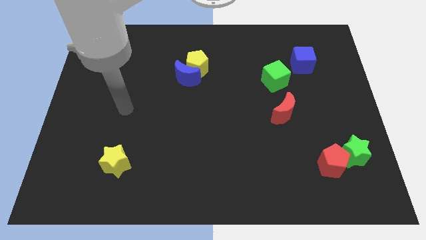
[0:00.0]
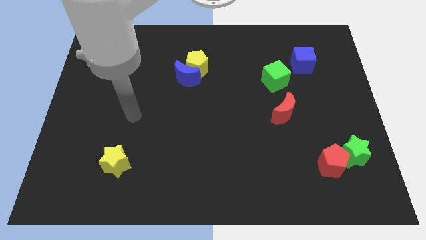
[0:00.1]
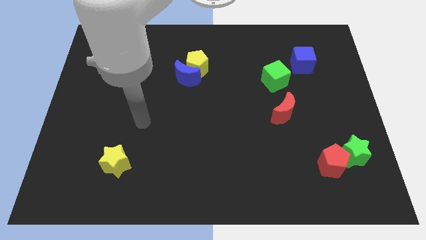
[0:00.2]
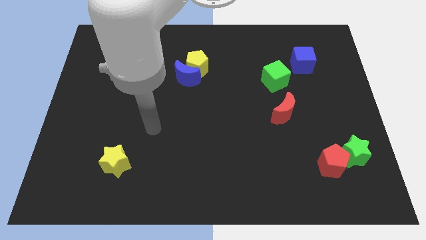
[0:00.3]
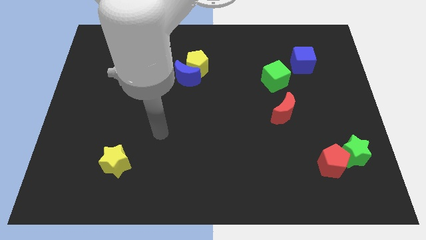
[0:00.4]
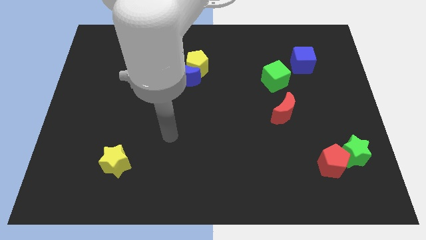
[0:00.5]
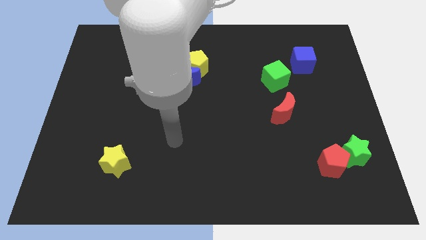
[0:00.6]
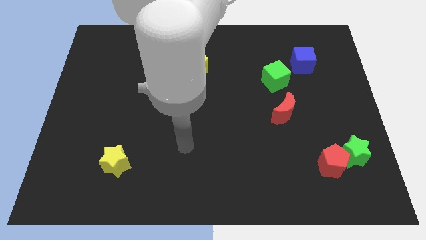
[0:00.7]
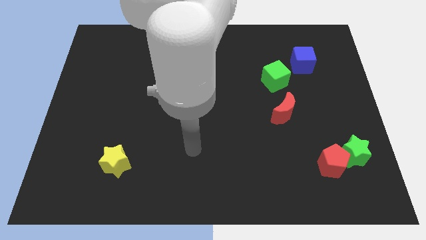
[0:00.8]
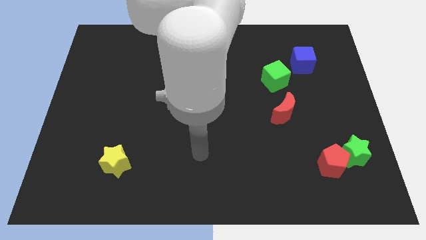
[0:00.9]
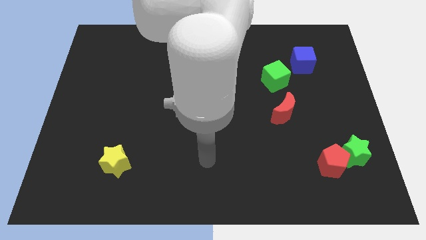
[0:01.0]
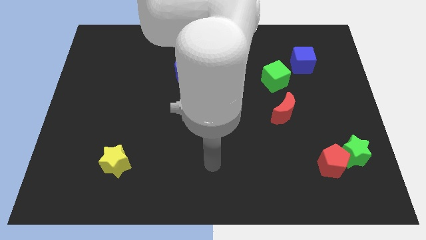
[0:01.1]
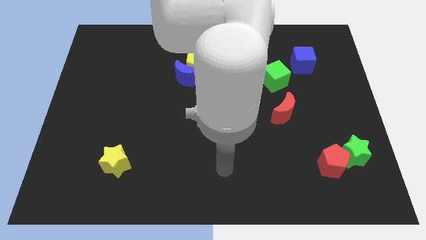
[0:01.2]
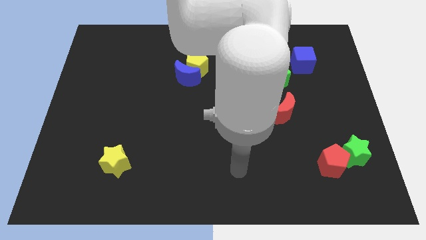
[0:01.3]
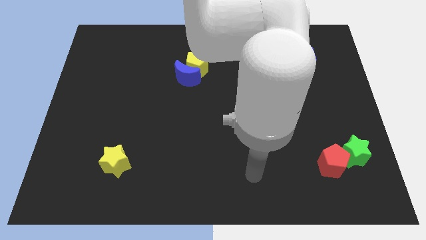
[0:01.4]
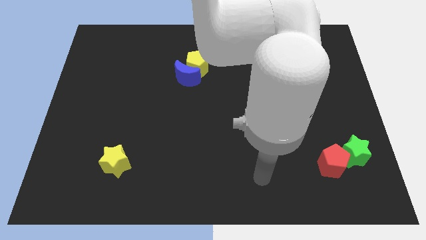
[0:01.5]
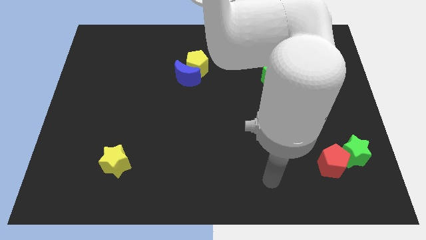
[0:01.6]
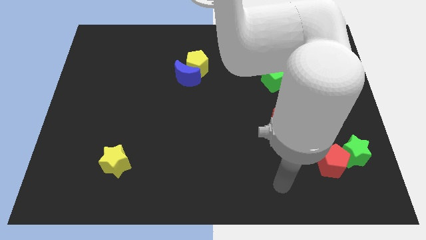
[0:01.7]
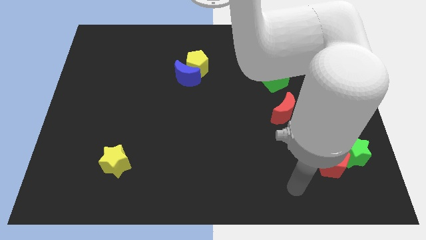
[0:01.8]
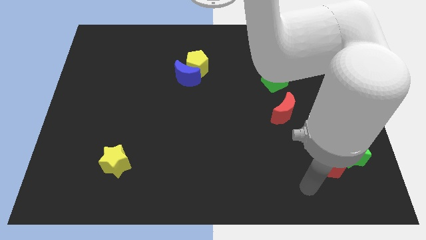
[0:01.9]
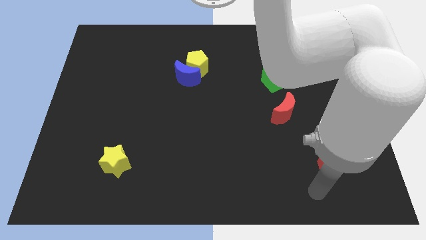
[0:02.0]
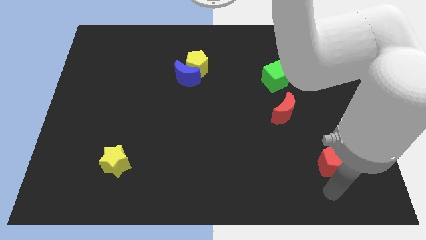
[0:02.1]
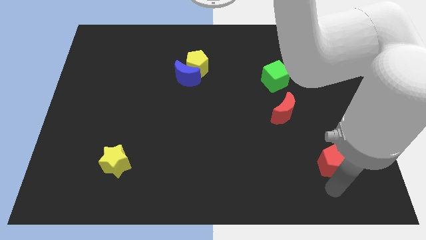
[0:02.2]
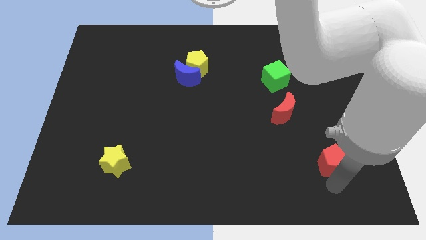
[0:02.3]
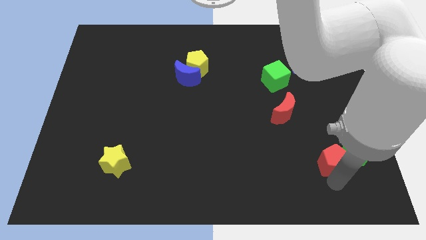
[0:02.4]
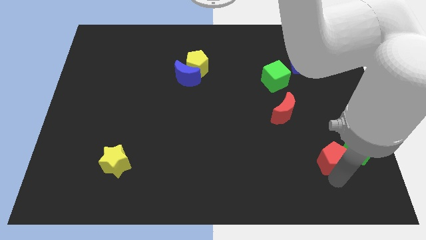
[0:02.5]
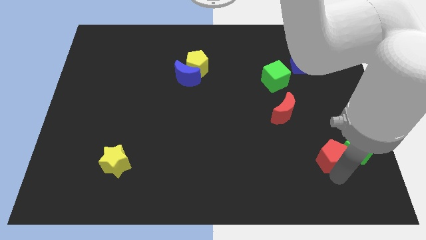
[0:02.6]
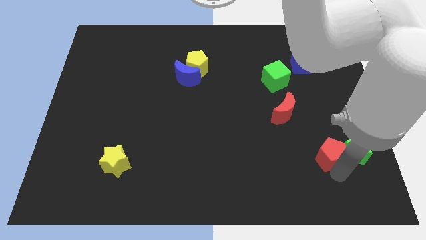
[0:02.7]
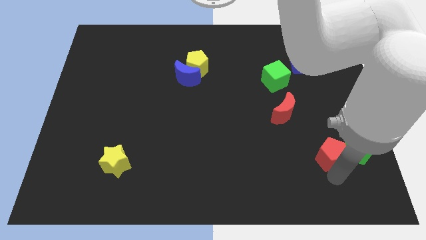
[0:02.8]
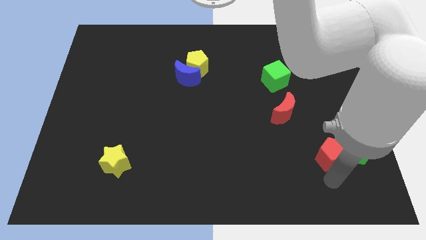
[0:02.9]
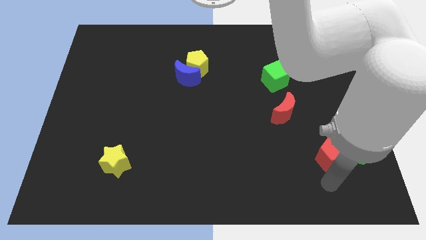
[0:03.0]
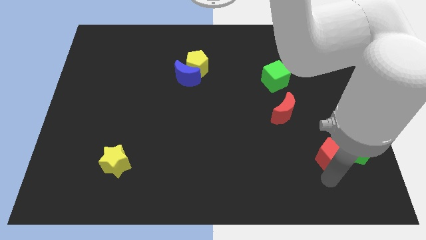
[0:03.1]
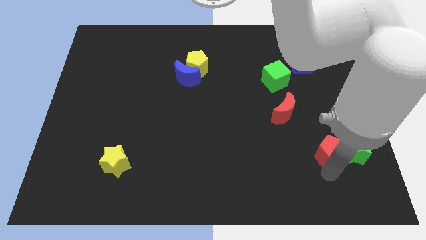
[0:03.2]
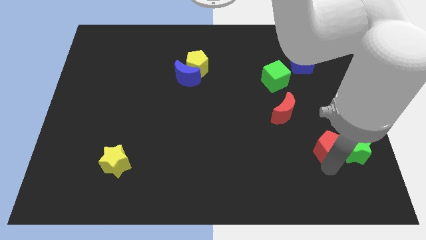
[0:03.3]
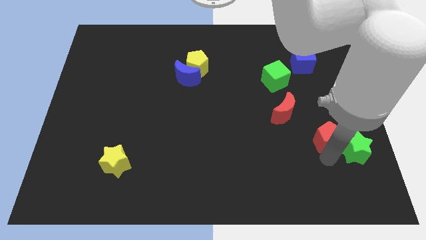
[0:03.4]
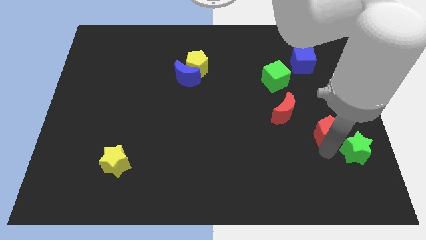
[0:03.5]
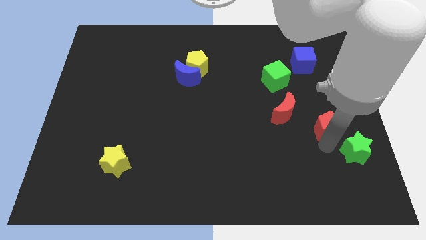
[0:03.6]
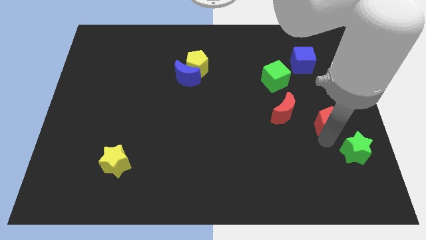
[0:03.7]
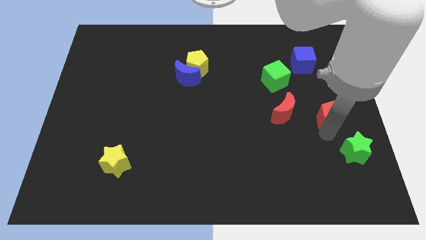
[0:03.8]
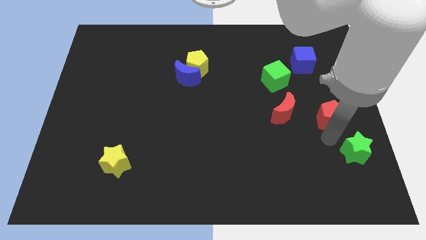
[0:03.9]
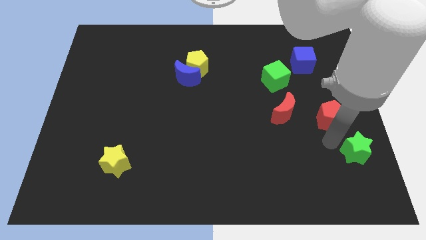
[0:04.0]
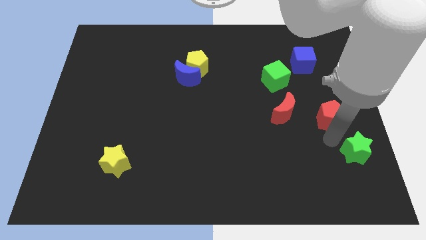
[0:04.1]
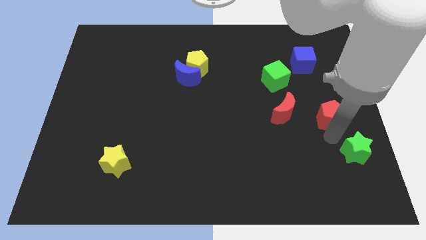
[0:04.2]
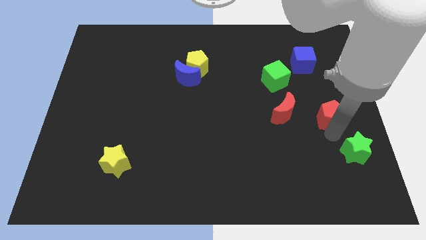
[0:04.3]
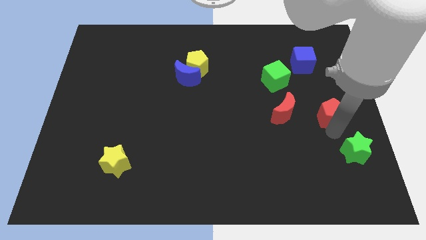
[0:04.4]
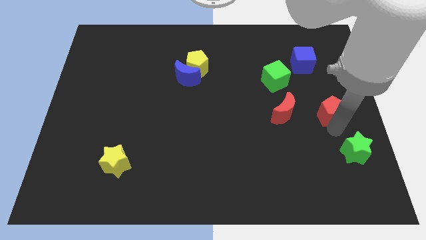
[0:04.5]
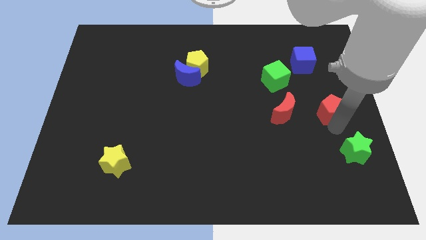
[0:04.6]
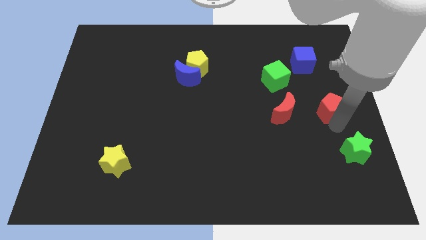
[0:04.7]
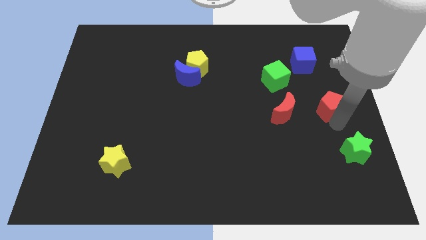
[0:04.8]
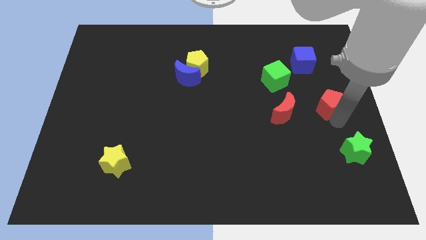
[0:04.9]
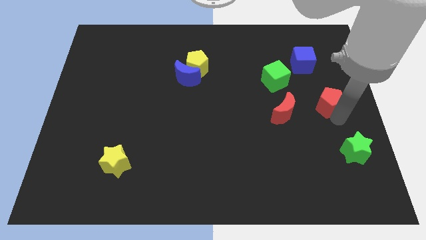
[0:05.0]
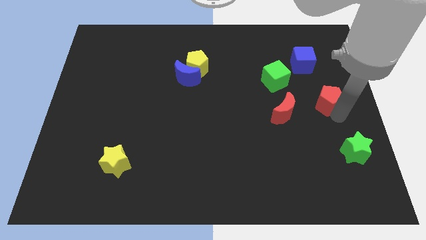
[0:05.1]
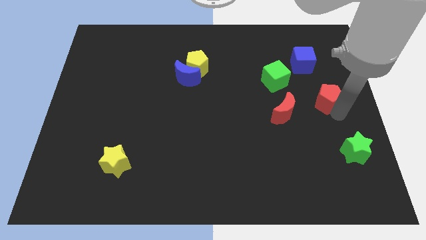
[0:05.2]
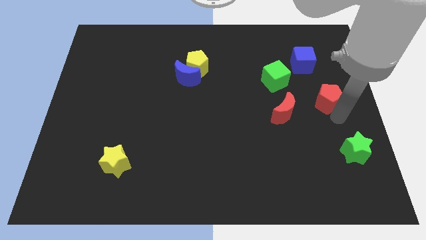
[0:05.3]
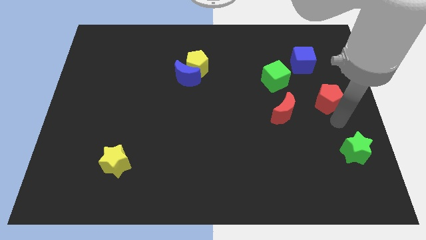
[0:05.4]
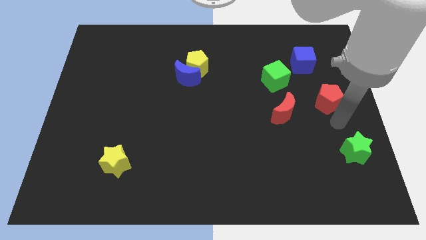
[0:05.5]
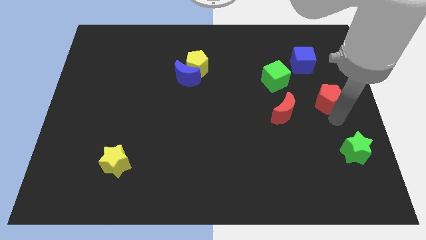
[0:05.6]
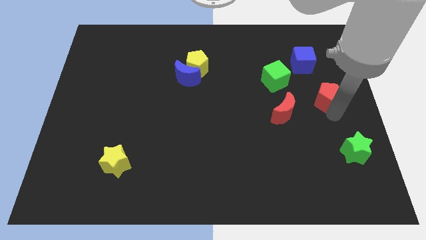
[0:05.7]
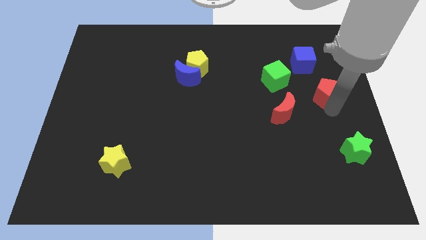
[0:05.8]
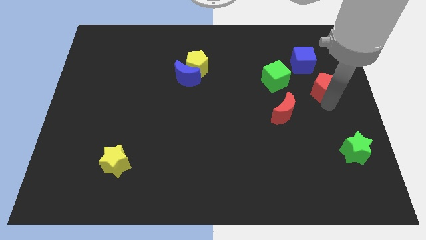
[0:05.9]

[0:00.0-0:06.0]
slide the red pentagon to the bottom right side of the blue cube

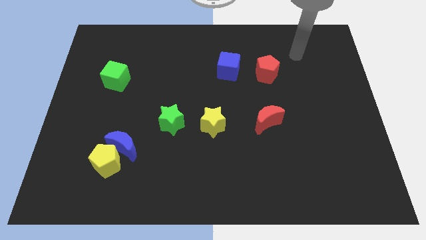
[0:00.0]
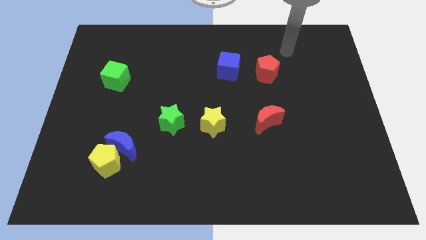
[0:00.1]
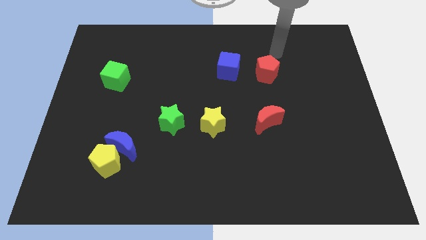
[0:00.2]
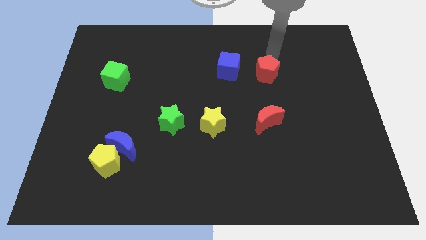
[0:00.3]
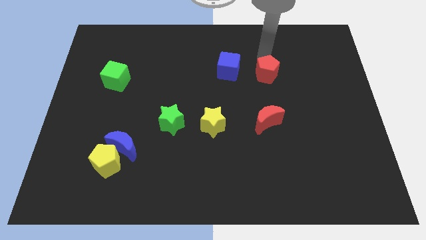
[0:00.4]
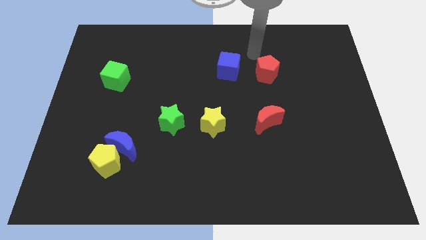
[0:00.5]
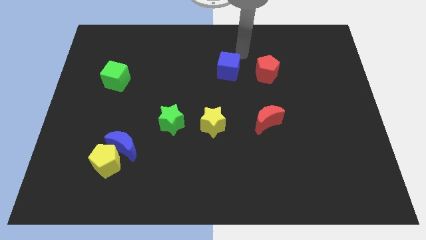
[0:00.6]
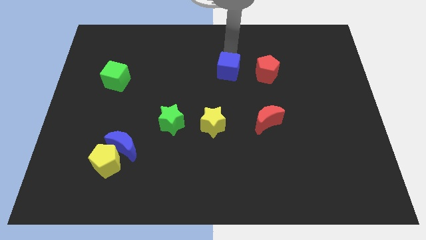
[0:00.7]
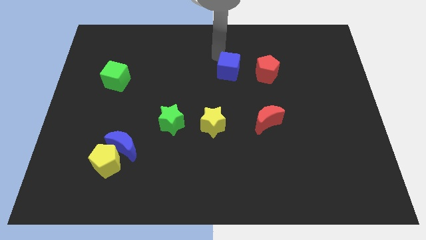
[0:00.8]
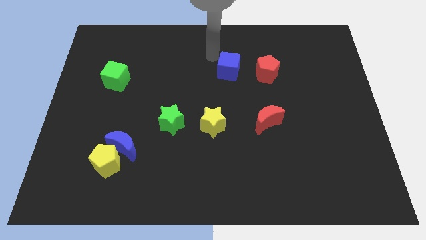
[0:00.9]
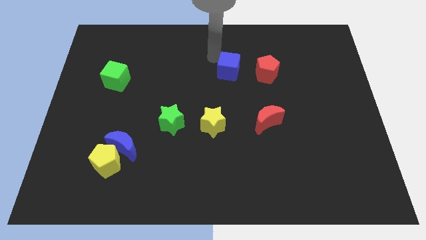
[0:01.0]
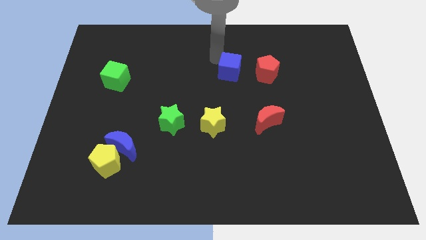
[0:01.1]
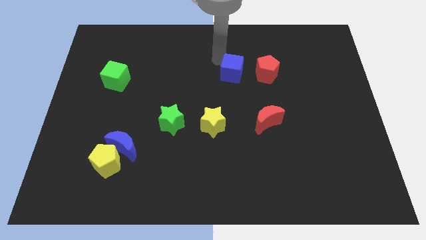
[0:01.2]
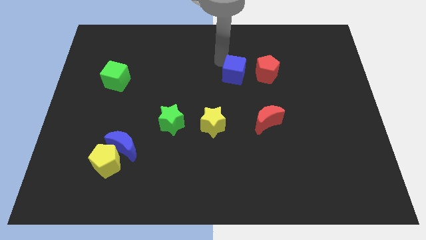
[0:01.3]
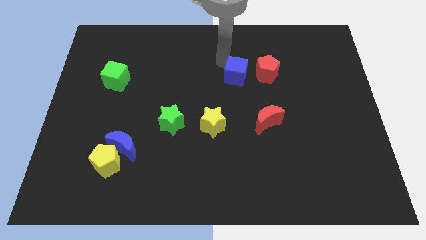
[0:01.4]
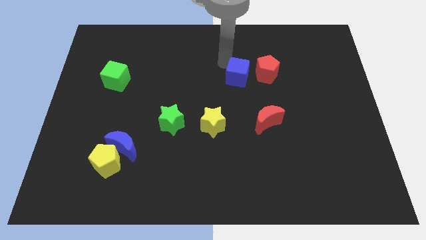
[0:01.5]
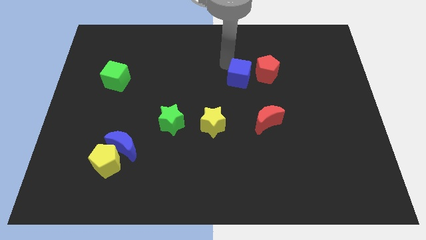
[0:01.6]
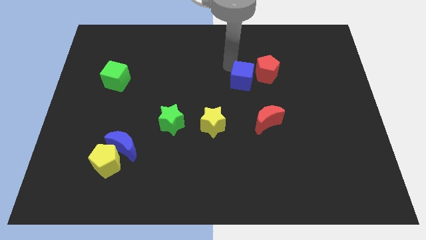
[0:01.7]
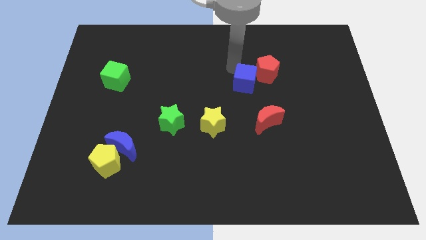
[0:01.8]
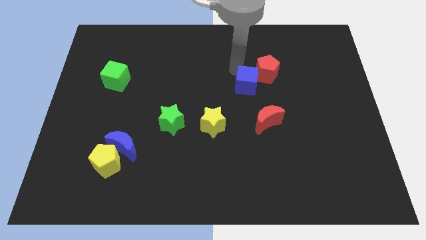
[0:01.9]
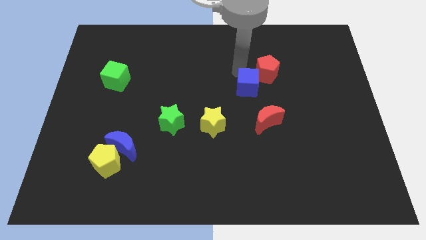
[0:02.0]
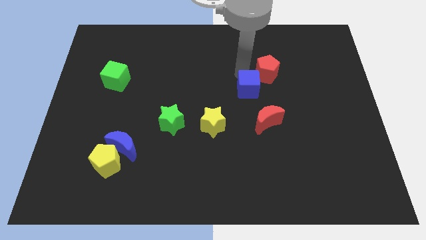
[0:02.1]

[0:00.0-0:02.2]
put the blue cube below the red pentagon
